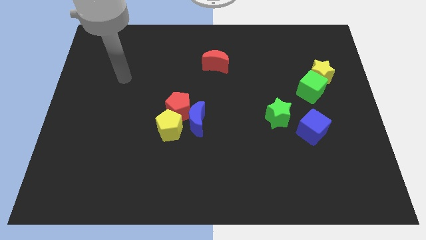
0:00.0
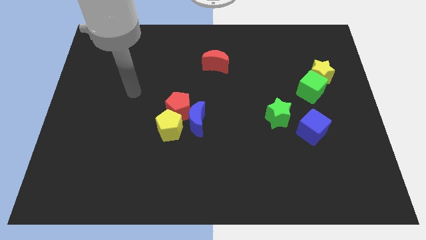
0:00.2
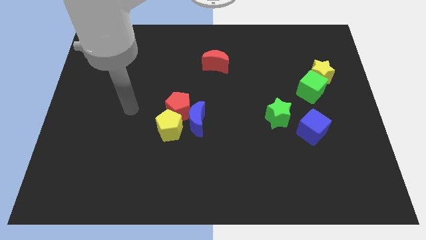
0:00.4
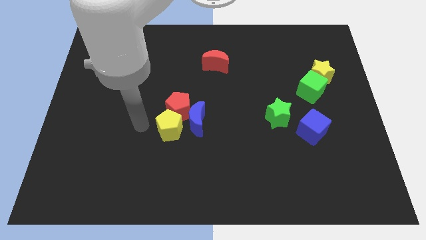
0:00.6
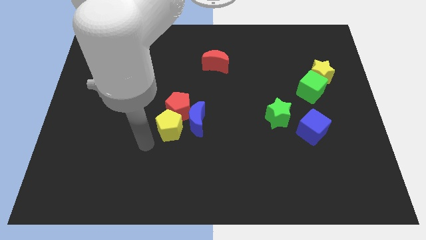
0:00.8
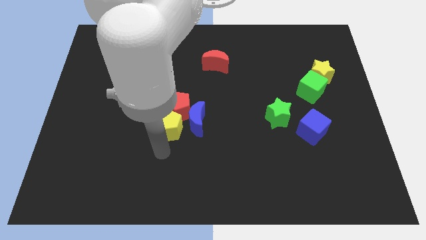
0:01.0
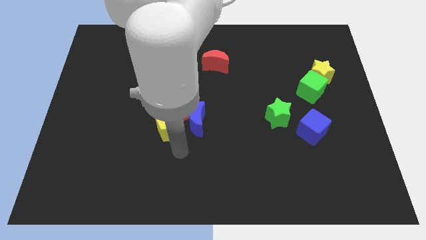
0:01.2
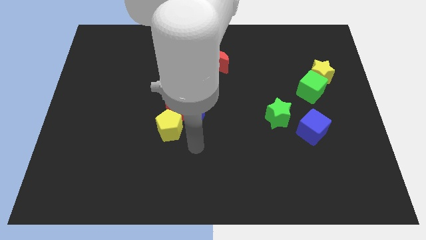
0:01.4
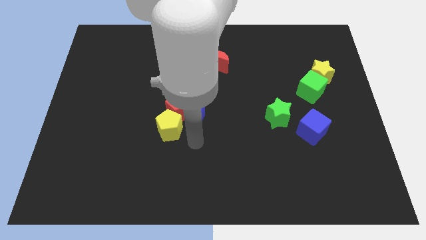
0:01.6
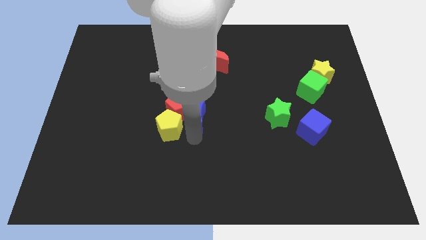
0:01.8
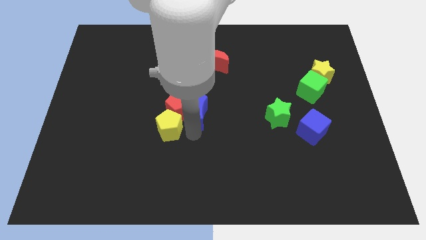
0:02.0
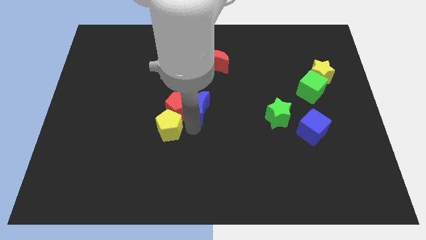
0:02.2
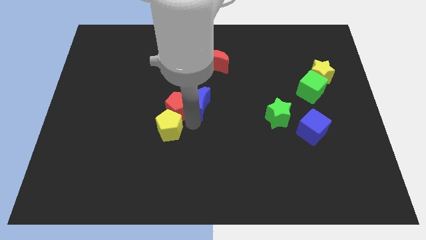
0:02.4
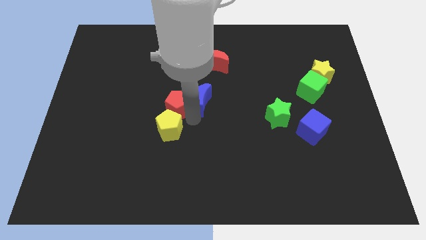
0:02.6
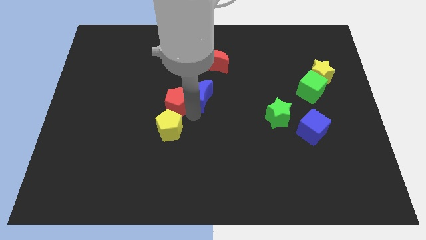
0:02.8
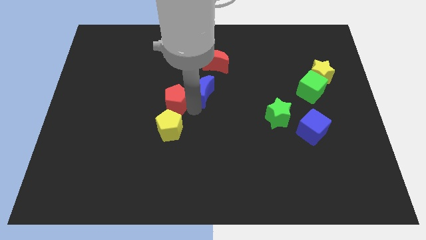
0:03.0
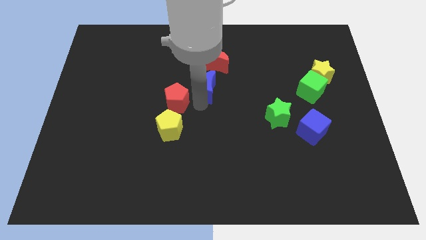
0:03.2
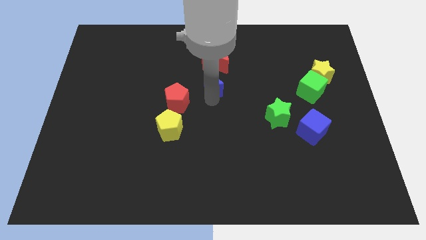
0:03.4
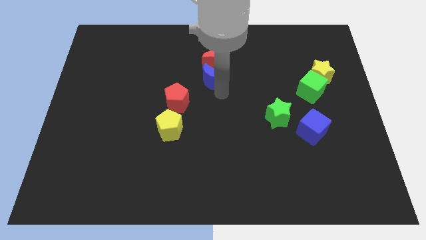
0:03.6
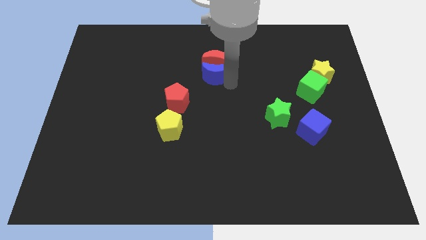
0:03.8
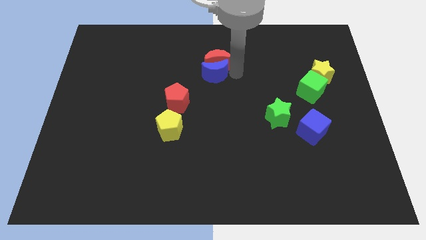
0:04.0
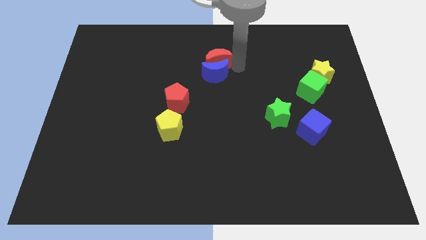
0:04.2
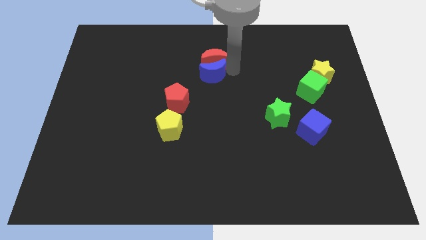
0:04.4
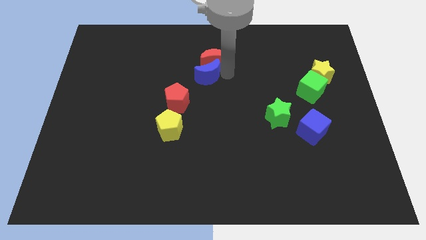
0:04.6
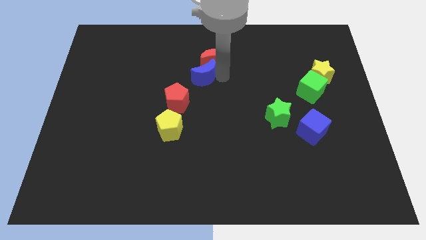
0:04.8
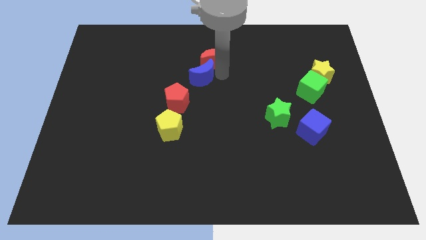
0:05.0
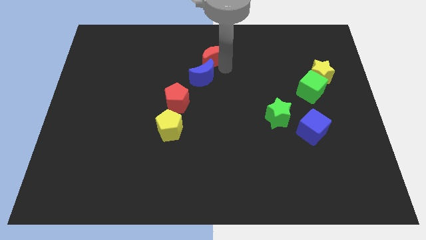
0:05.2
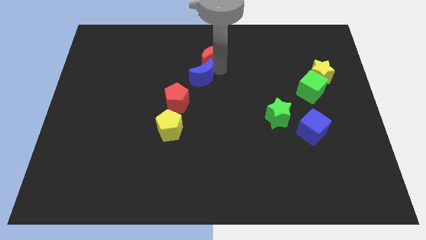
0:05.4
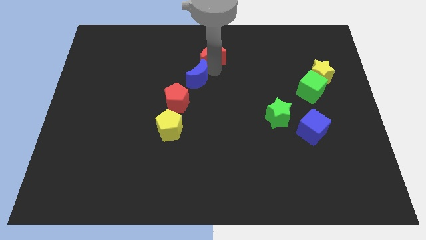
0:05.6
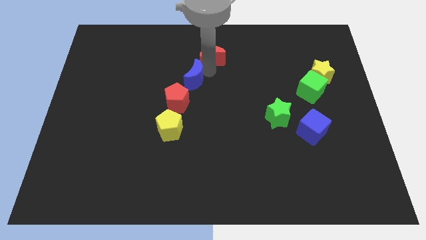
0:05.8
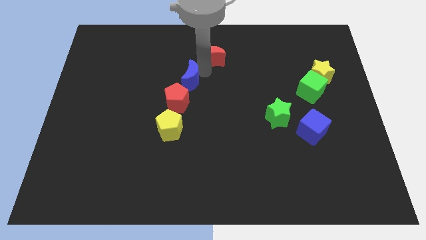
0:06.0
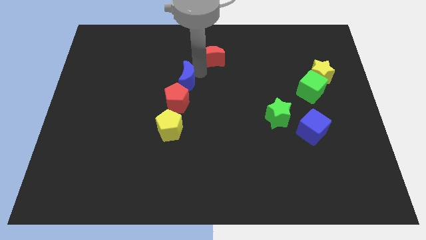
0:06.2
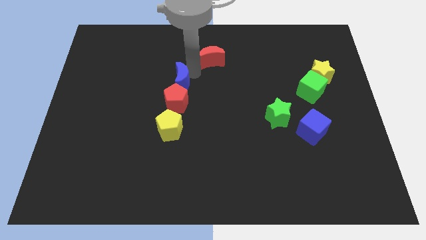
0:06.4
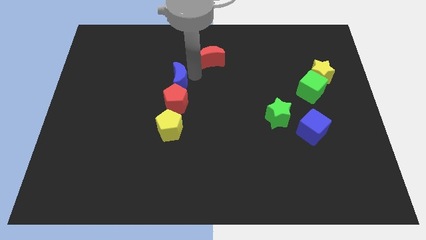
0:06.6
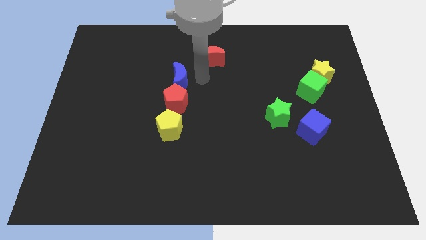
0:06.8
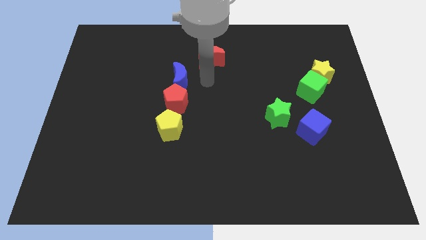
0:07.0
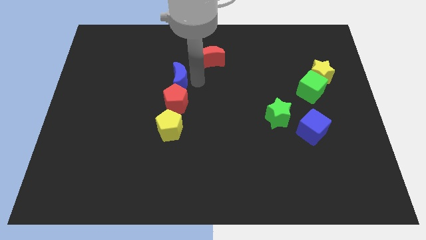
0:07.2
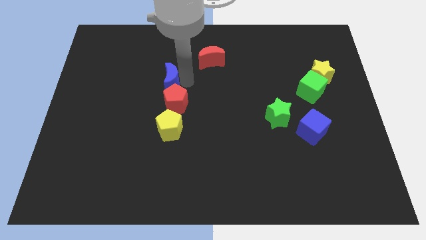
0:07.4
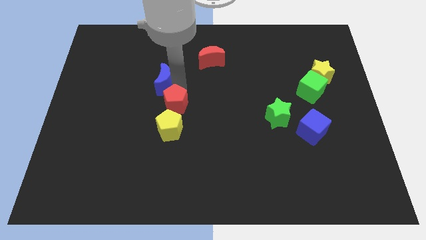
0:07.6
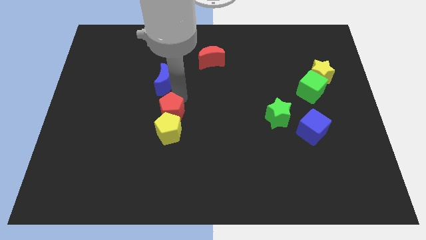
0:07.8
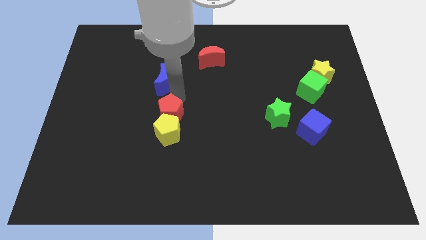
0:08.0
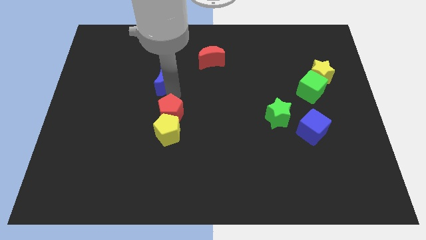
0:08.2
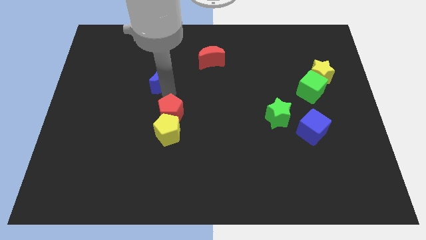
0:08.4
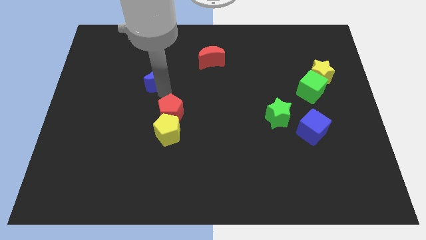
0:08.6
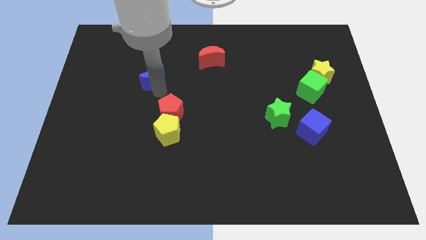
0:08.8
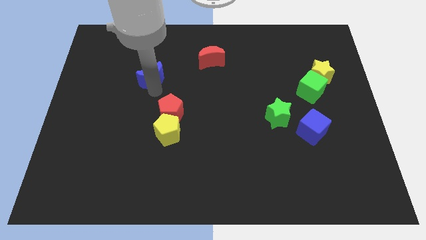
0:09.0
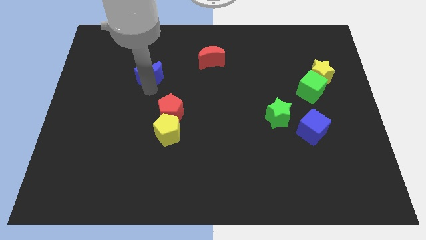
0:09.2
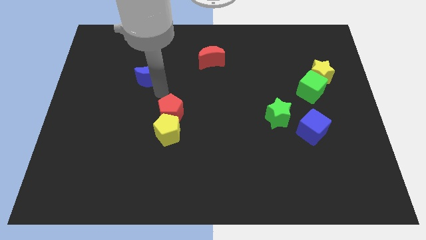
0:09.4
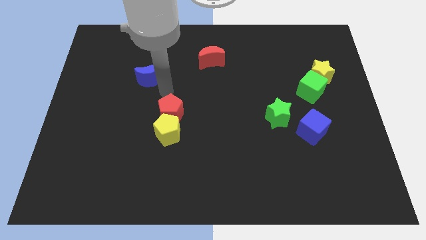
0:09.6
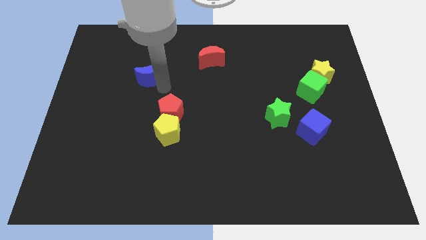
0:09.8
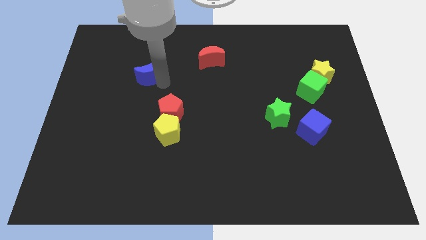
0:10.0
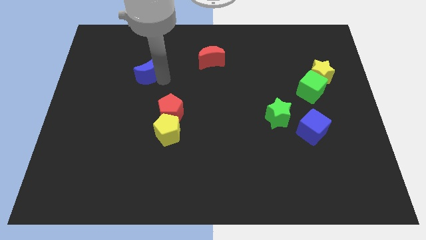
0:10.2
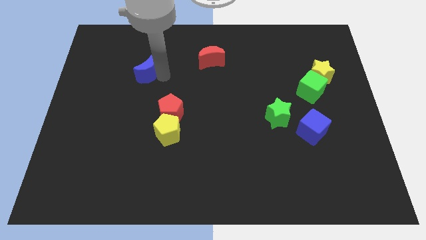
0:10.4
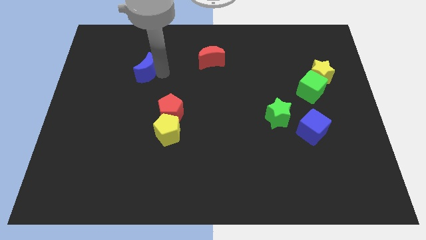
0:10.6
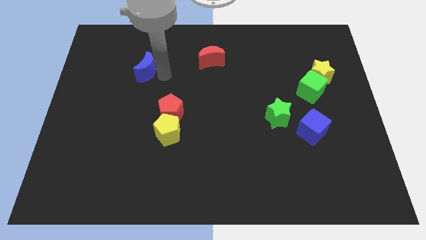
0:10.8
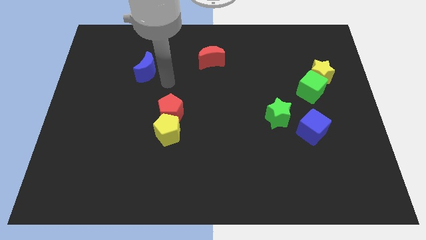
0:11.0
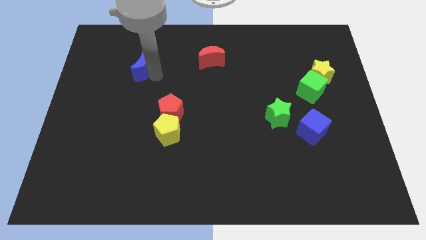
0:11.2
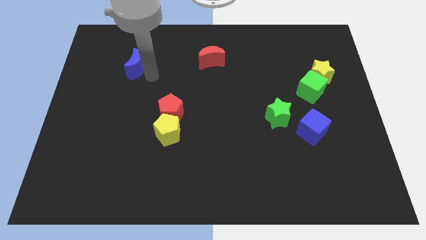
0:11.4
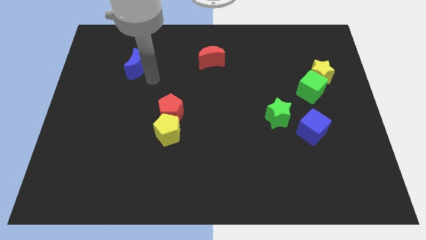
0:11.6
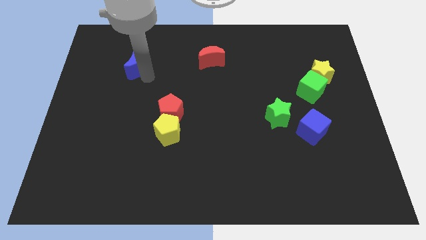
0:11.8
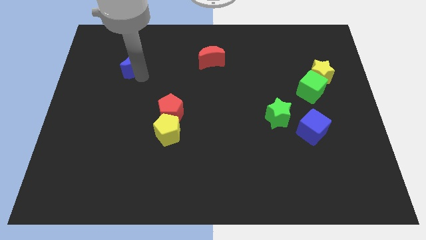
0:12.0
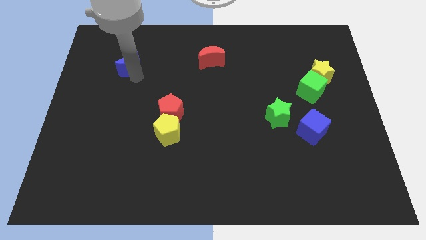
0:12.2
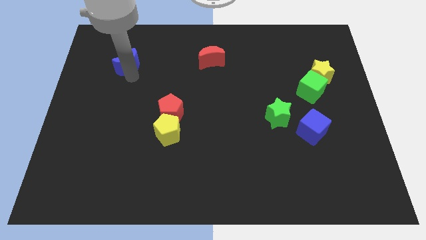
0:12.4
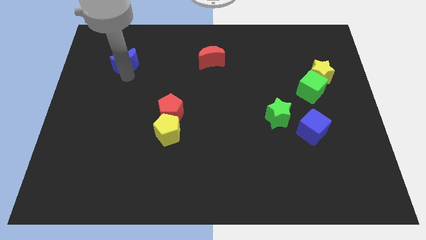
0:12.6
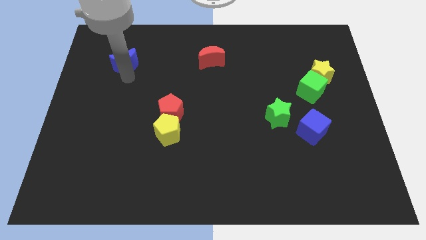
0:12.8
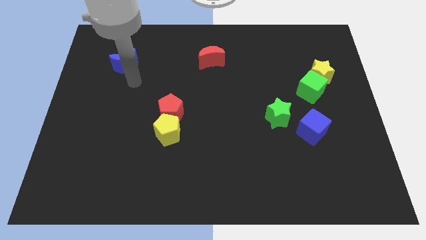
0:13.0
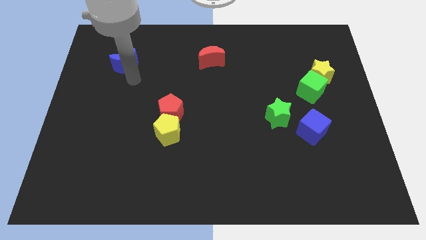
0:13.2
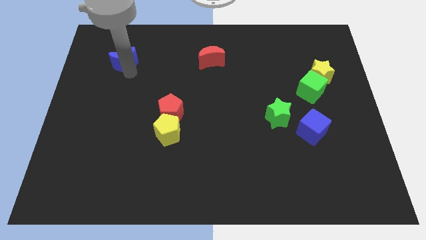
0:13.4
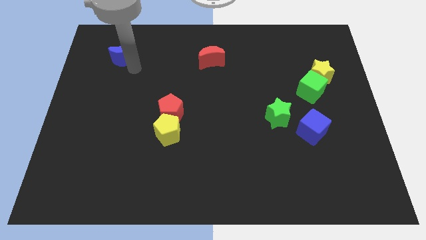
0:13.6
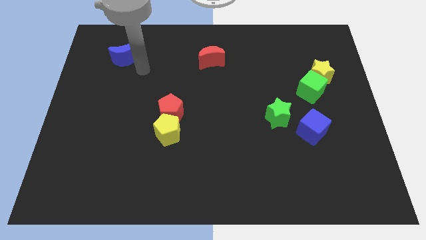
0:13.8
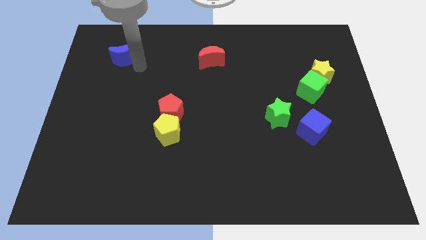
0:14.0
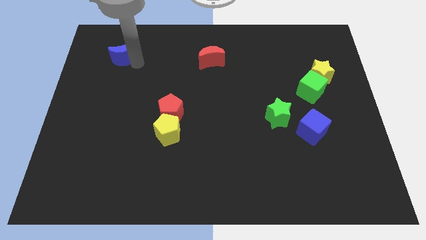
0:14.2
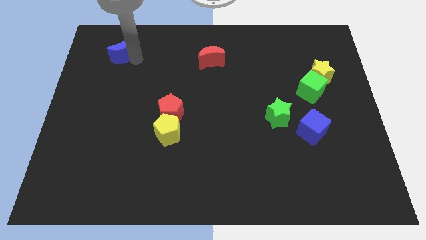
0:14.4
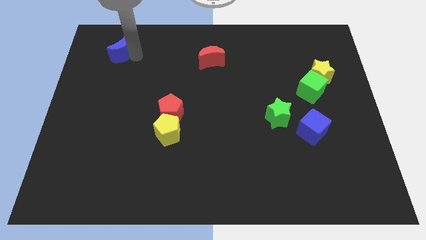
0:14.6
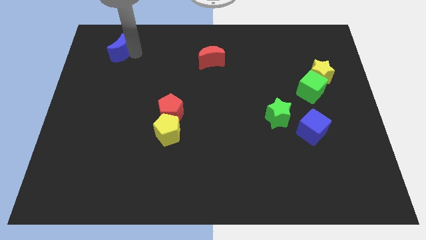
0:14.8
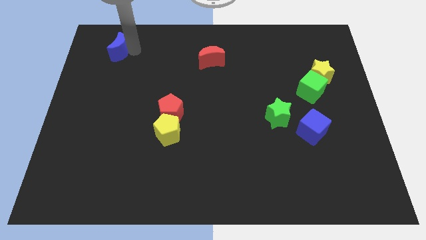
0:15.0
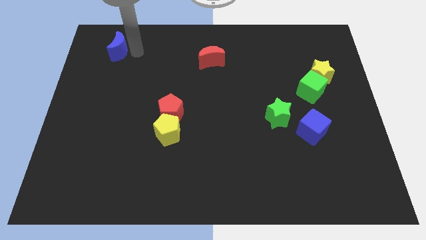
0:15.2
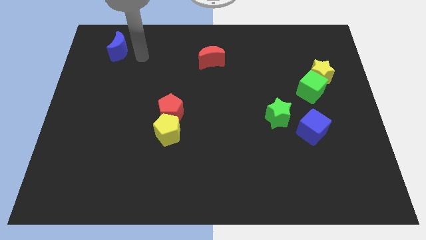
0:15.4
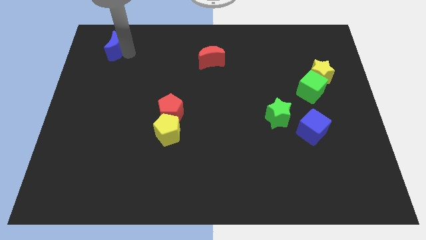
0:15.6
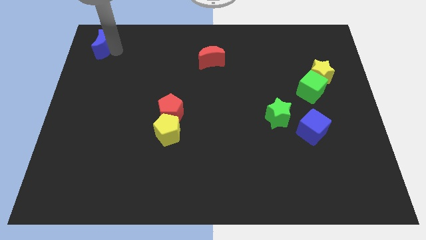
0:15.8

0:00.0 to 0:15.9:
slide the blue moon to the top left corner
